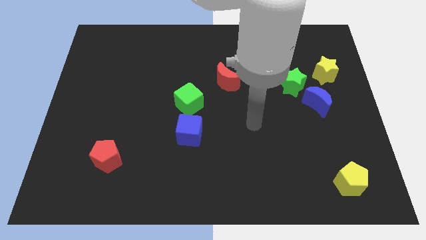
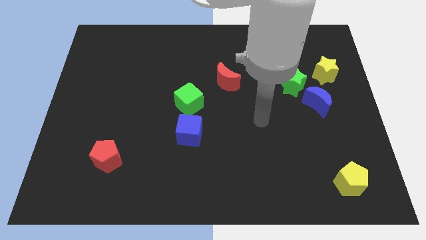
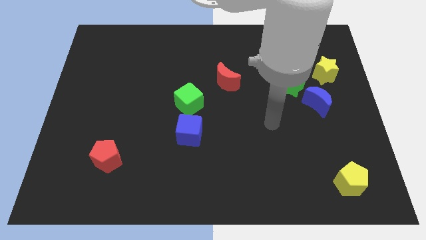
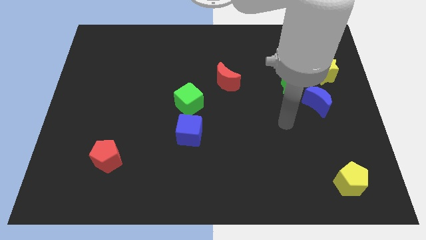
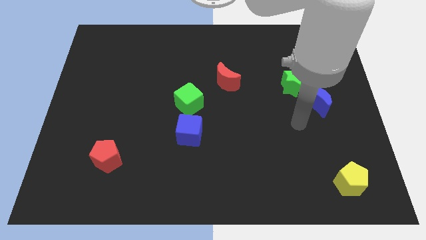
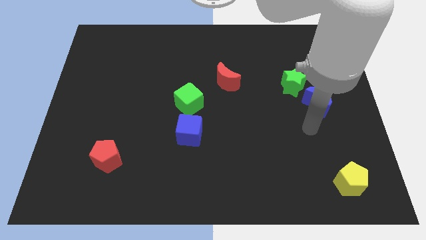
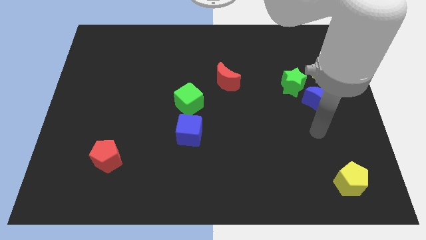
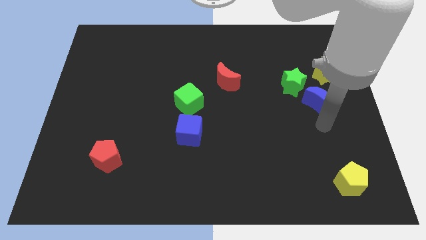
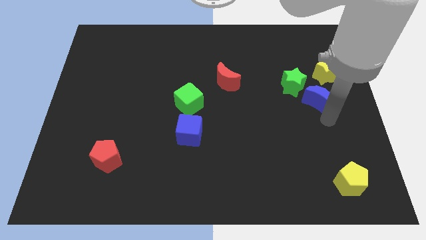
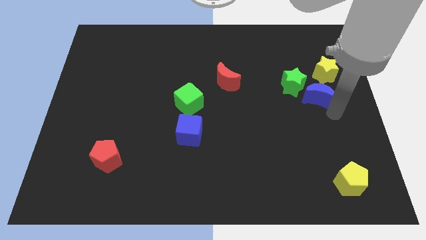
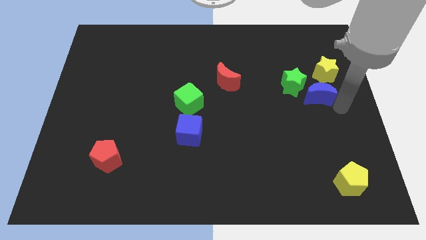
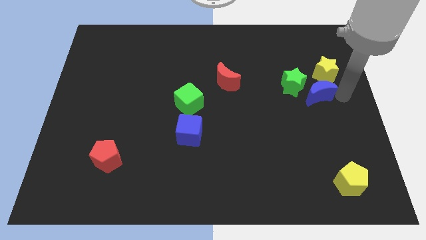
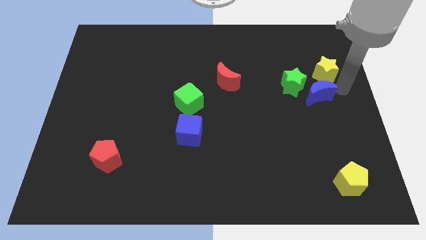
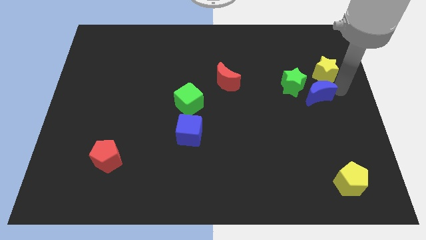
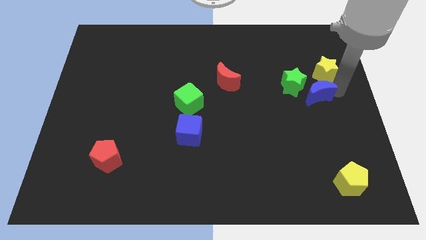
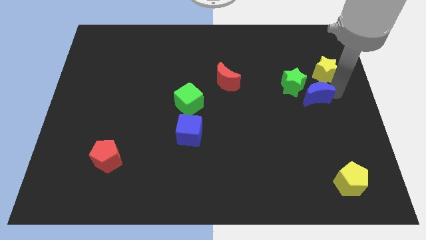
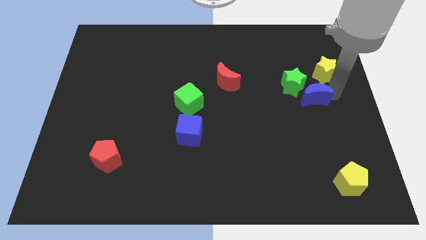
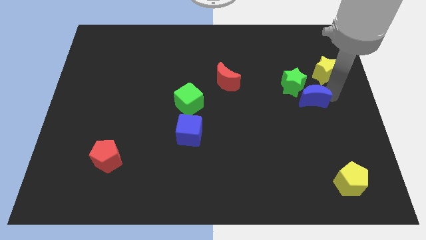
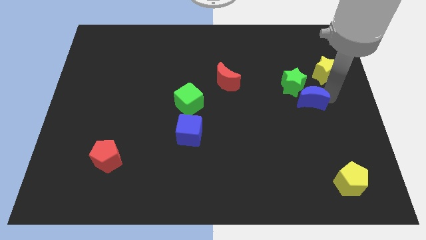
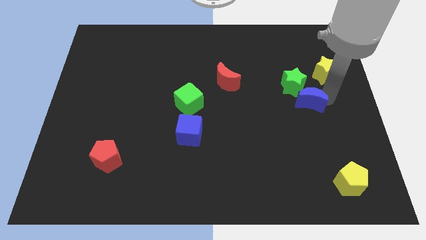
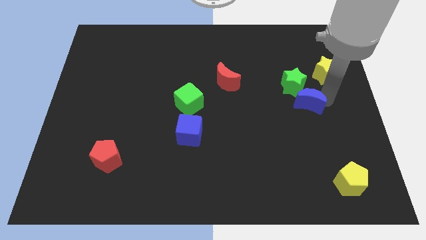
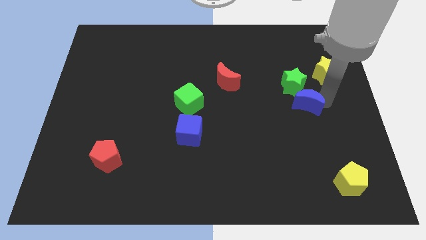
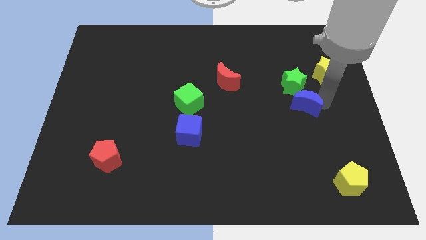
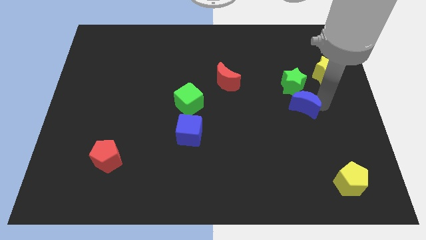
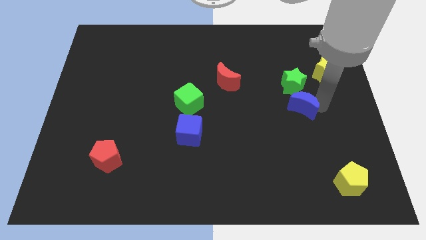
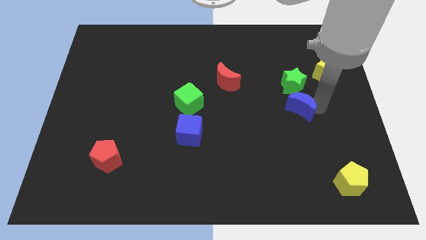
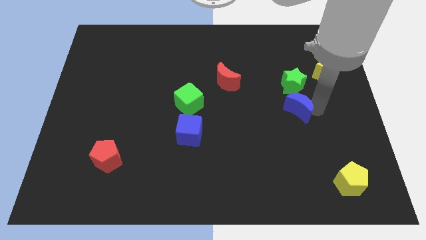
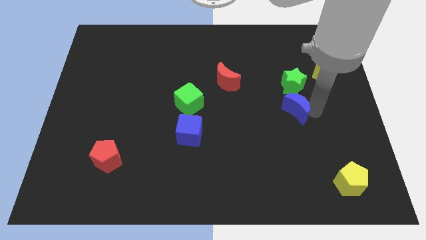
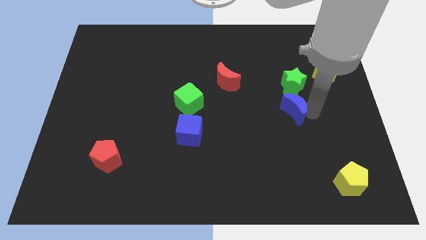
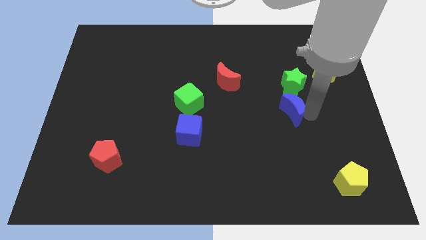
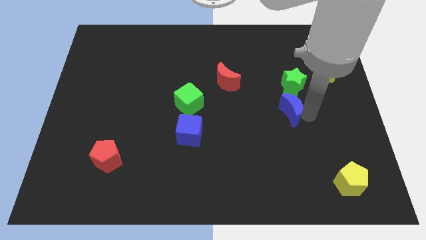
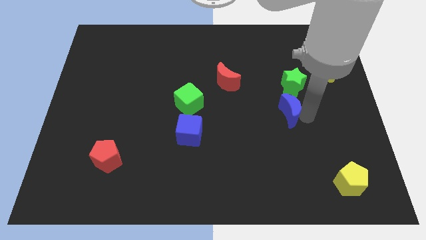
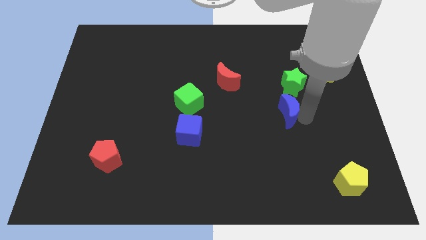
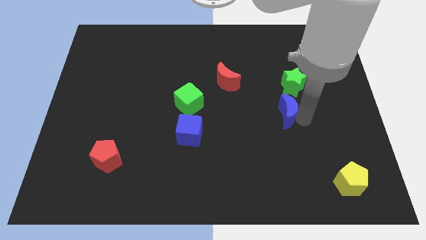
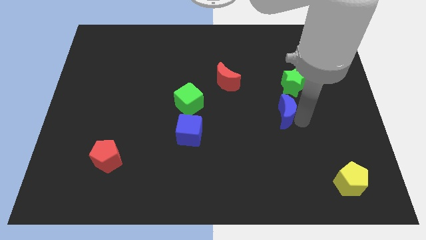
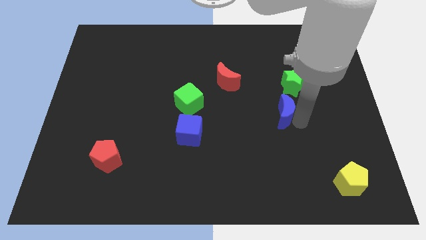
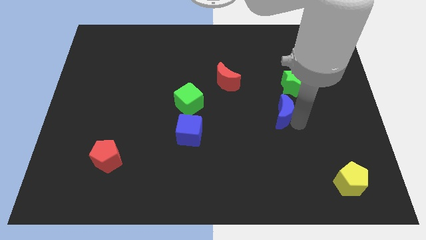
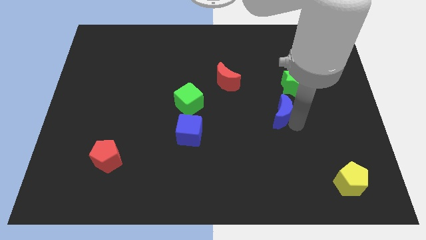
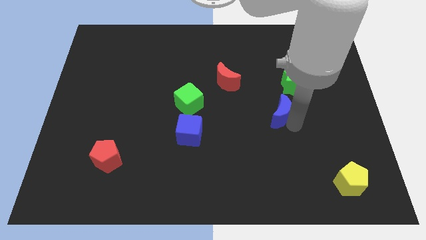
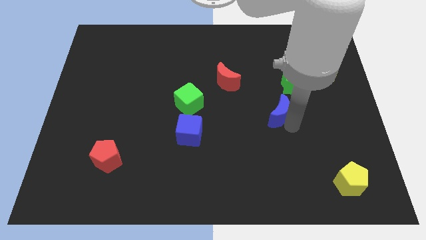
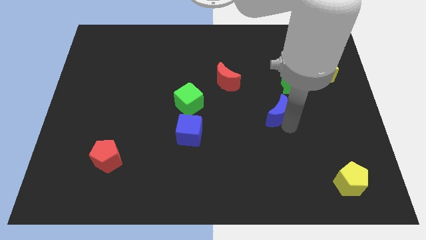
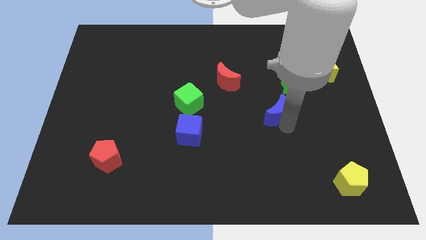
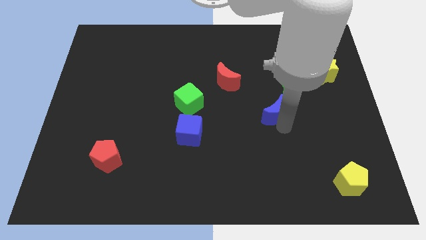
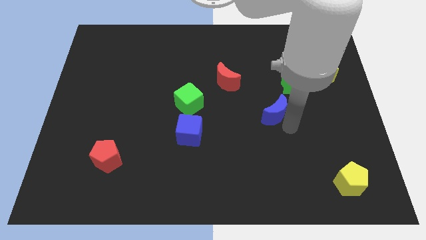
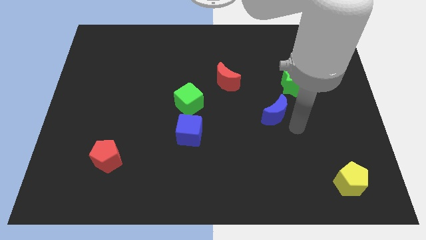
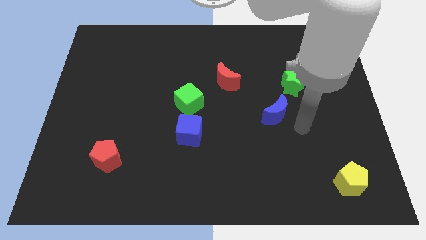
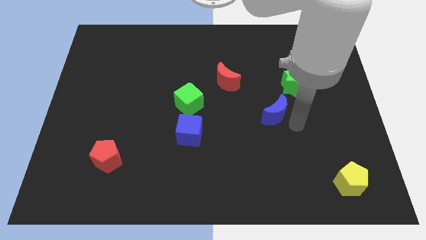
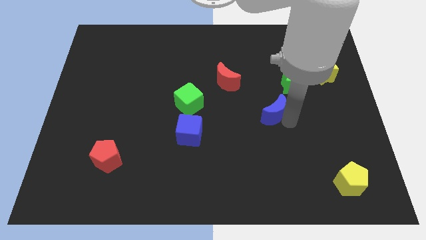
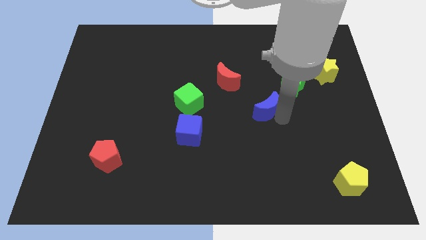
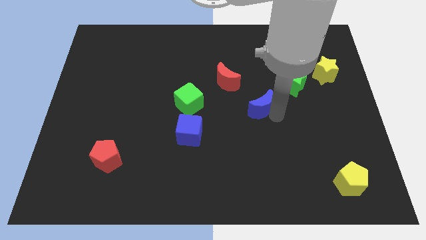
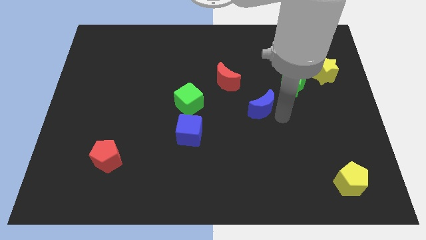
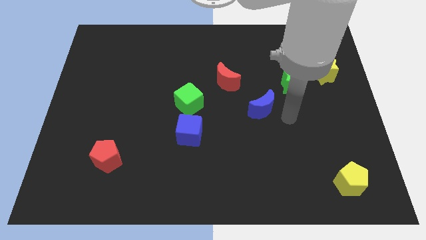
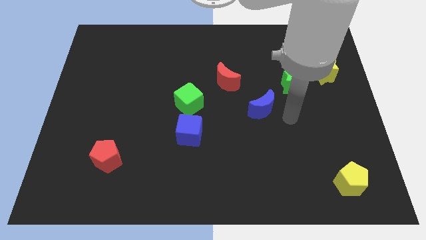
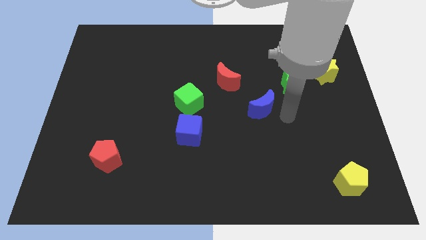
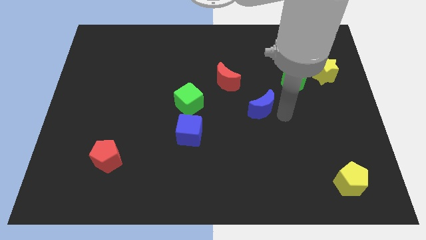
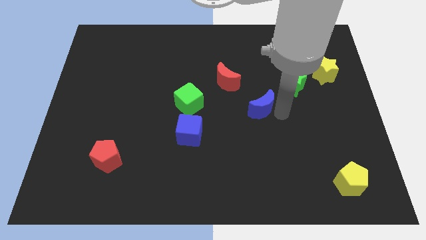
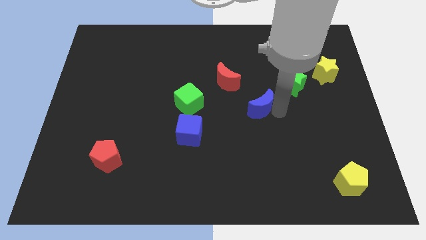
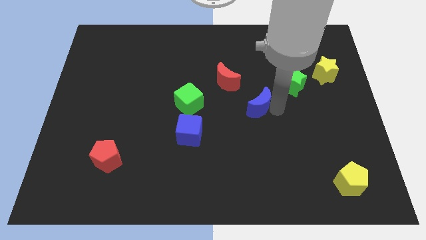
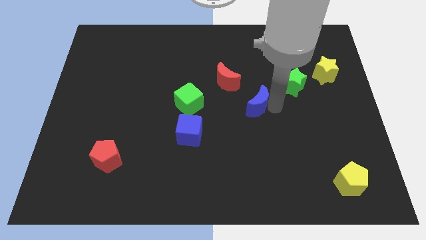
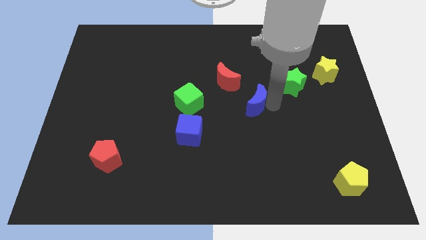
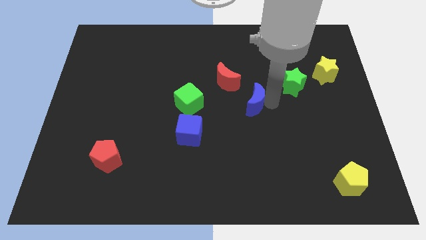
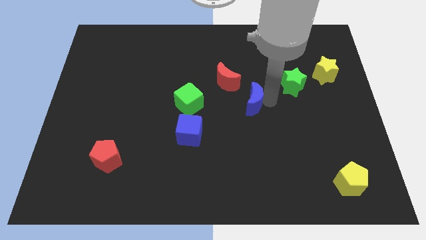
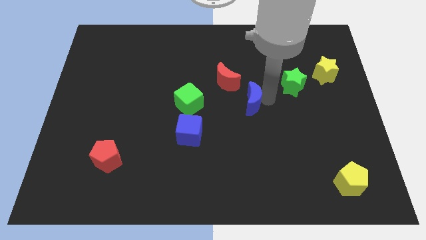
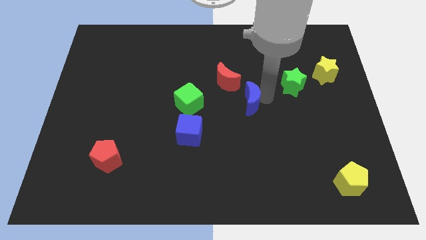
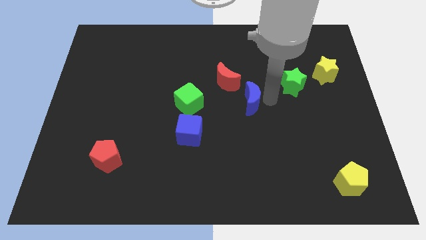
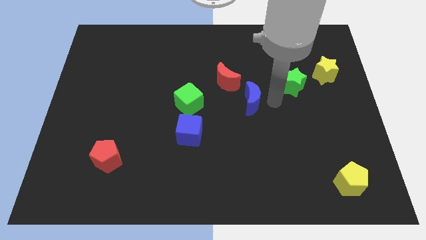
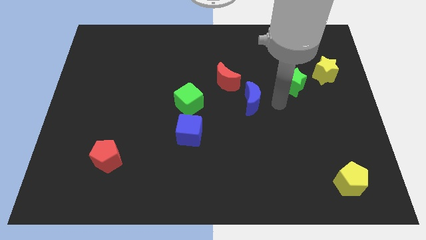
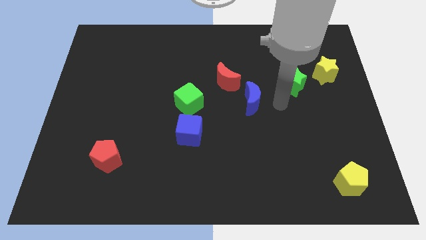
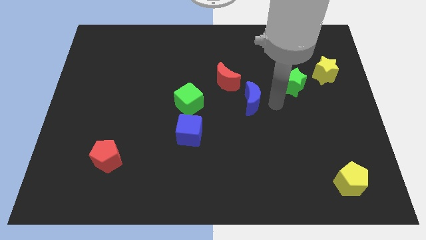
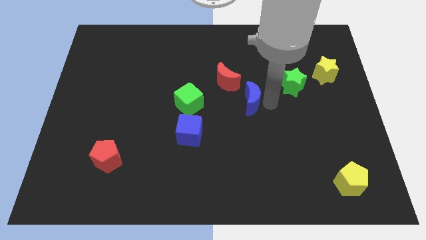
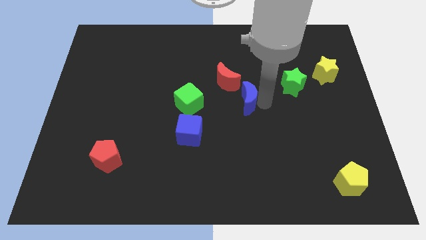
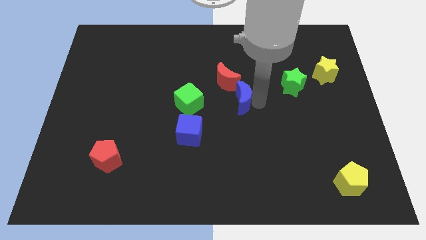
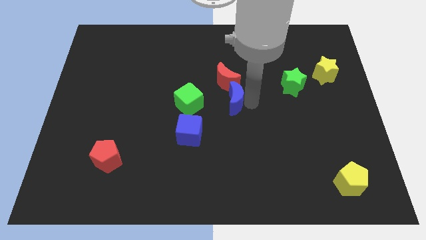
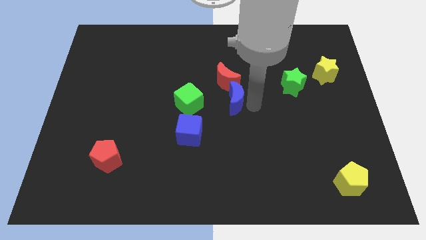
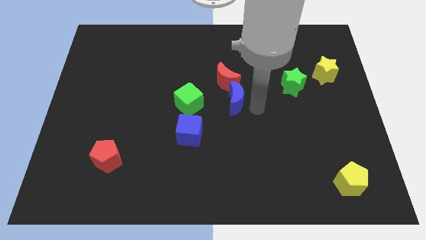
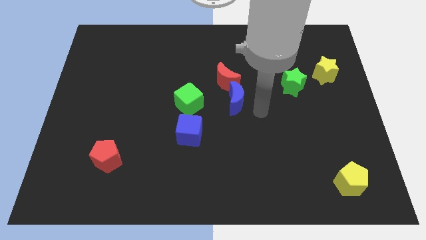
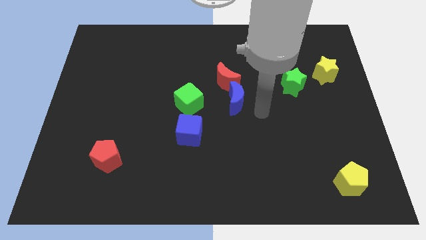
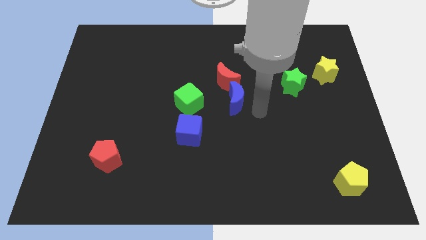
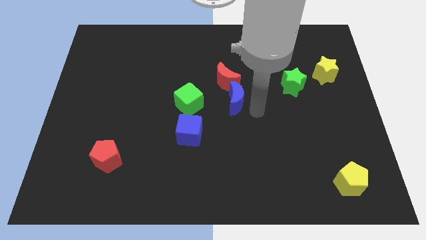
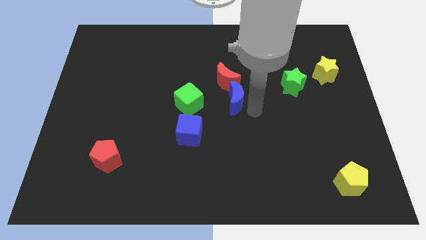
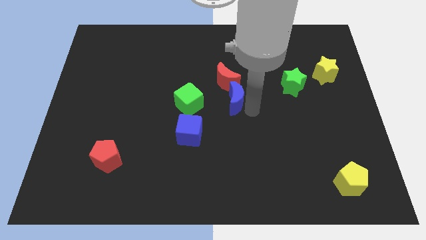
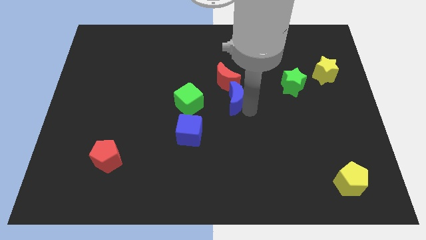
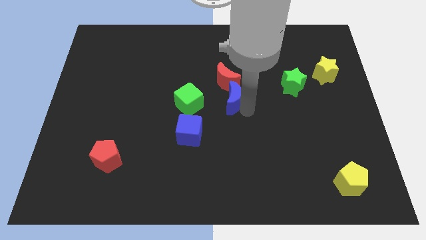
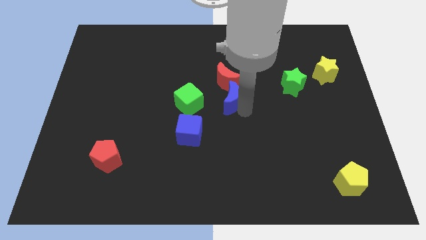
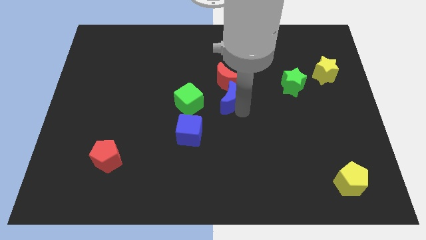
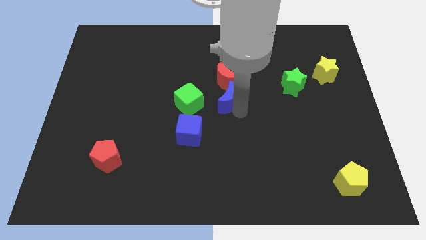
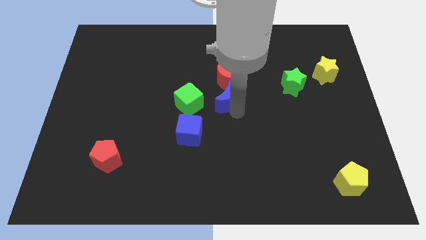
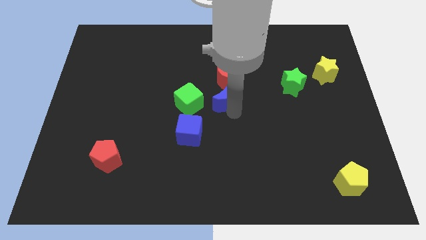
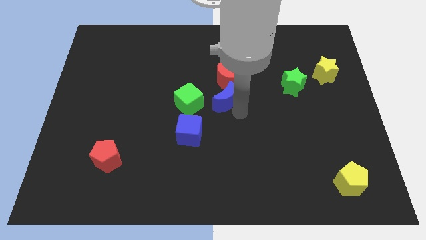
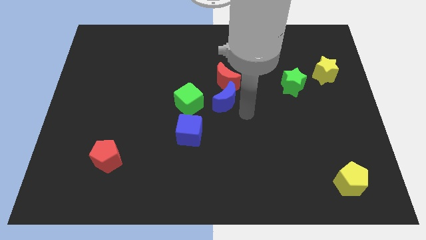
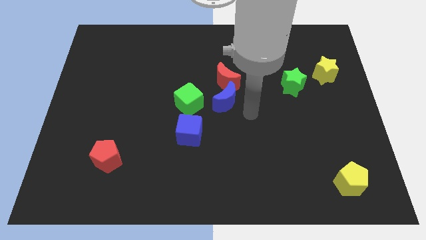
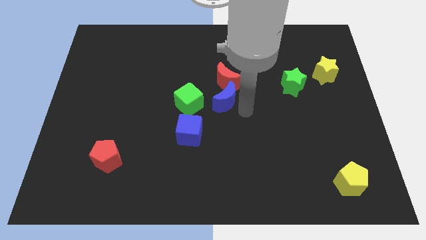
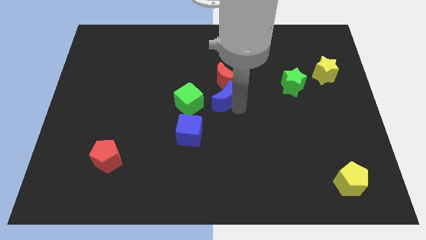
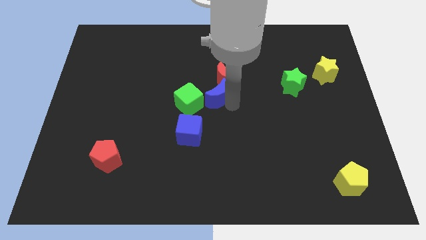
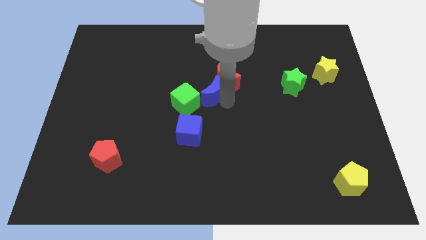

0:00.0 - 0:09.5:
push the blue moon to the left side of the red moon
